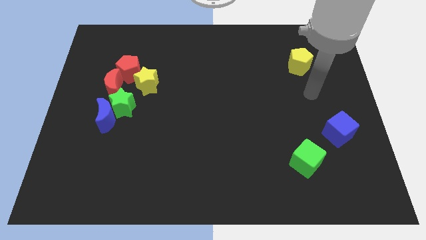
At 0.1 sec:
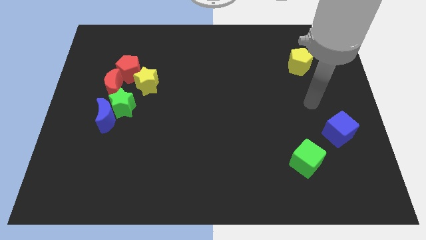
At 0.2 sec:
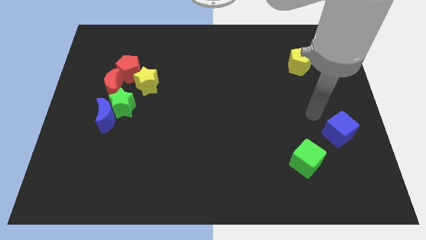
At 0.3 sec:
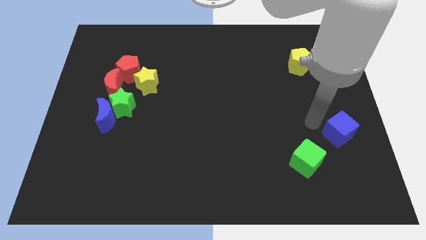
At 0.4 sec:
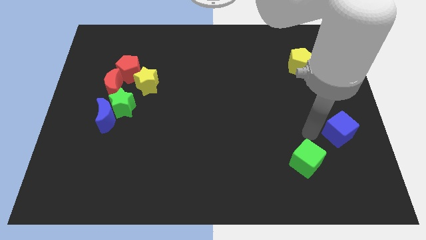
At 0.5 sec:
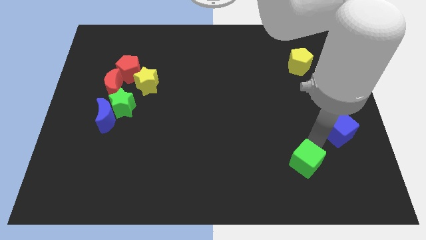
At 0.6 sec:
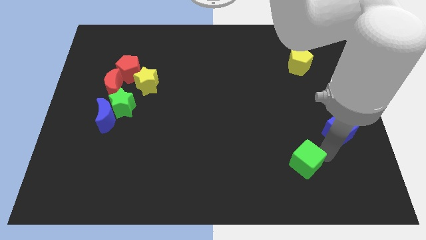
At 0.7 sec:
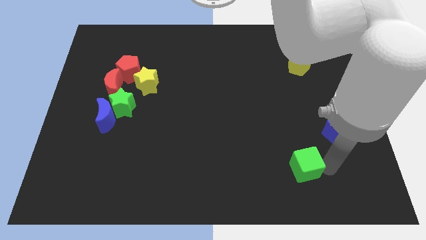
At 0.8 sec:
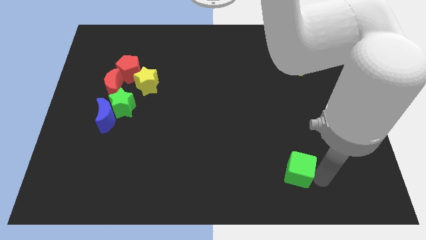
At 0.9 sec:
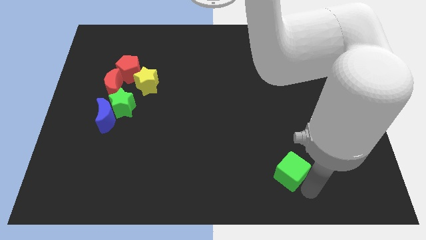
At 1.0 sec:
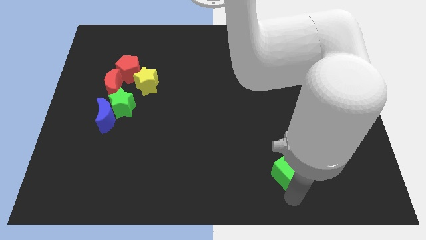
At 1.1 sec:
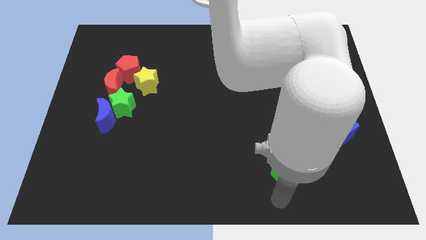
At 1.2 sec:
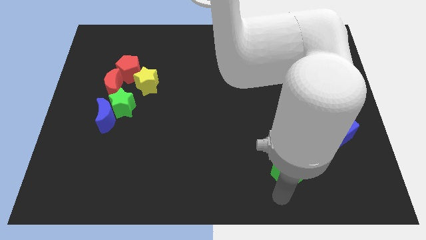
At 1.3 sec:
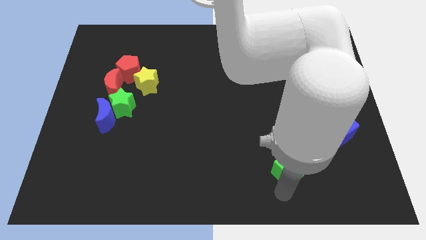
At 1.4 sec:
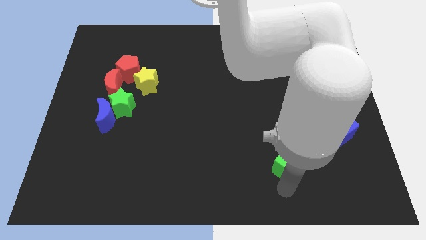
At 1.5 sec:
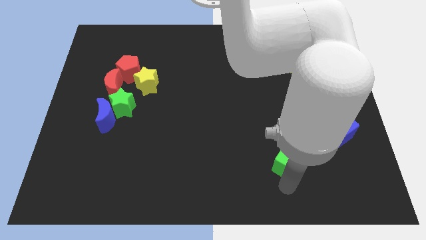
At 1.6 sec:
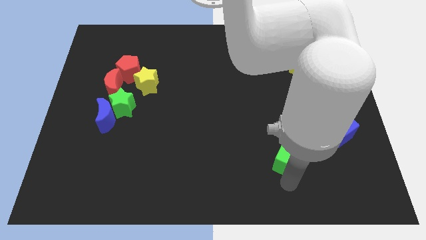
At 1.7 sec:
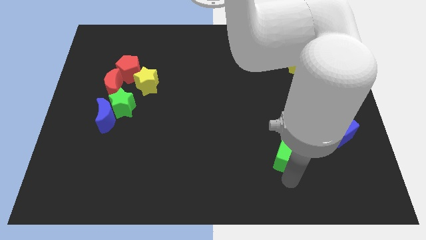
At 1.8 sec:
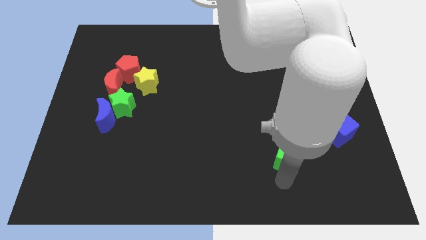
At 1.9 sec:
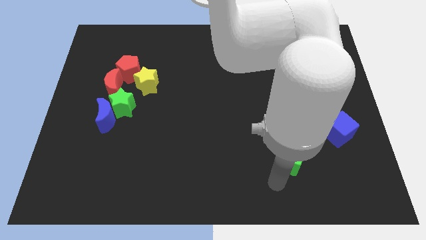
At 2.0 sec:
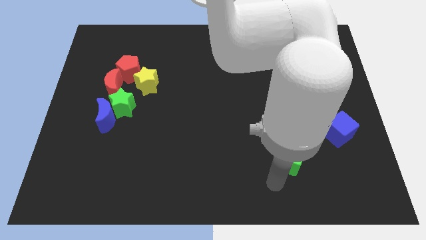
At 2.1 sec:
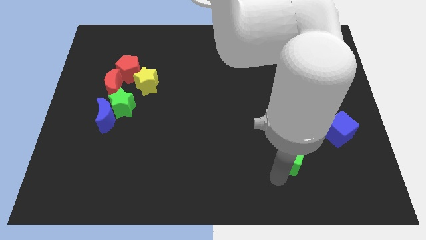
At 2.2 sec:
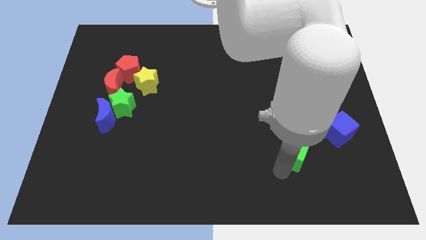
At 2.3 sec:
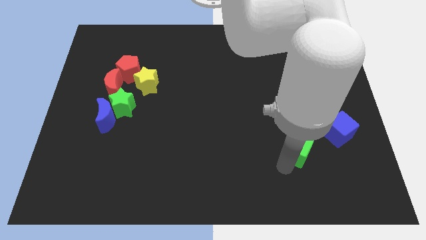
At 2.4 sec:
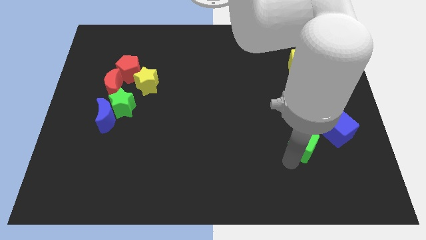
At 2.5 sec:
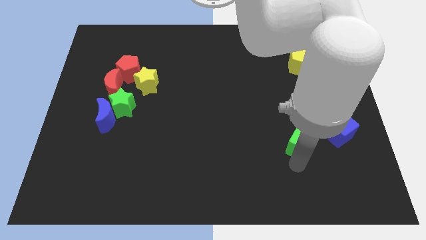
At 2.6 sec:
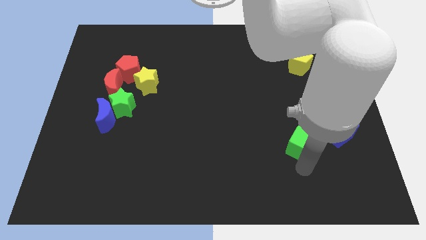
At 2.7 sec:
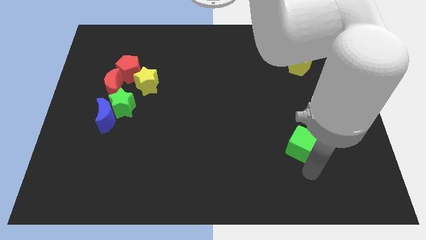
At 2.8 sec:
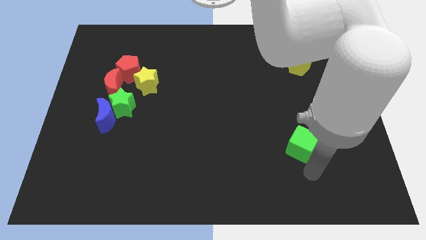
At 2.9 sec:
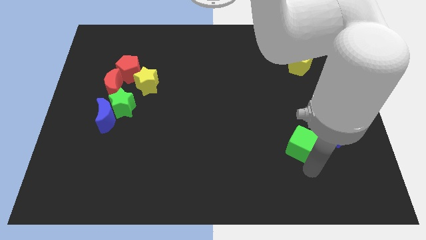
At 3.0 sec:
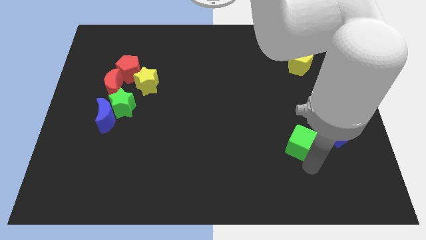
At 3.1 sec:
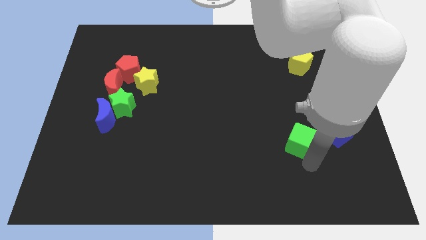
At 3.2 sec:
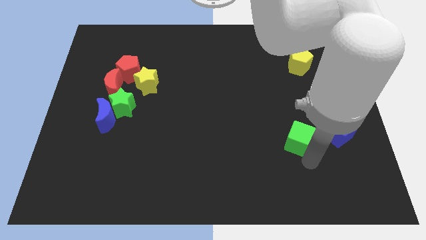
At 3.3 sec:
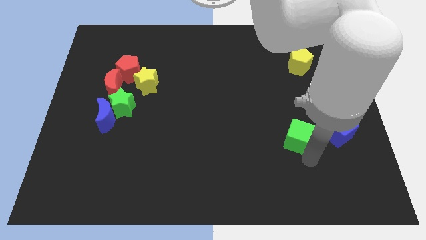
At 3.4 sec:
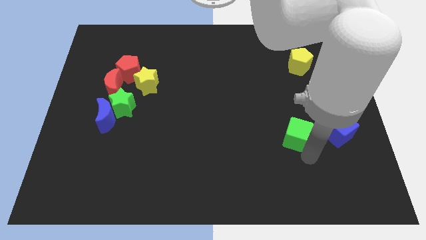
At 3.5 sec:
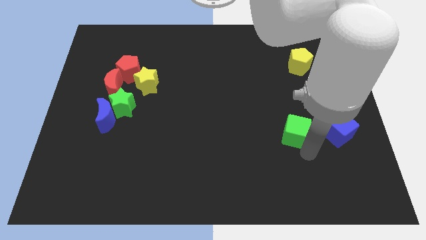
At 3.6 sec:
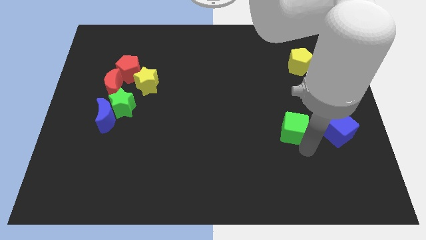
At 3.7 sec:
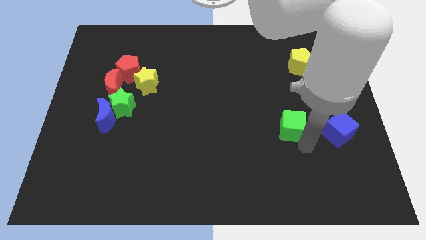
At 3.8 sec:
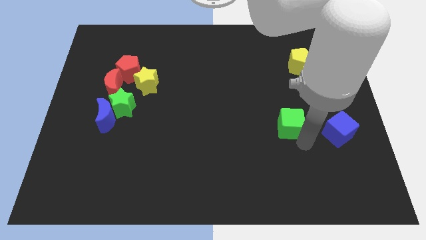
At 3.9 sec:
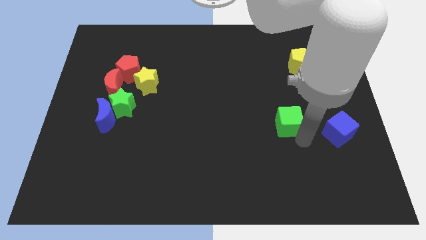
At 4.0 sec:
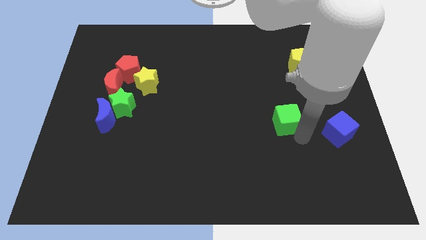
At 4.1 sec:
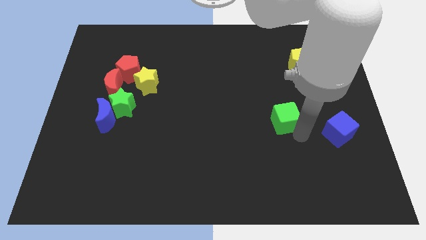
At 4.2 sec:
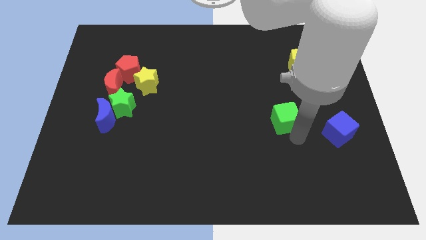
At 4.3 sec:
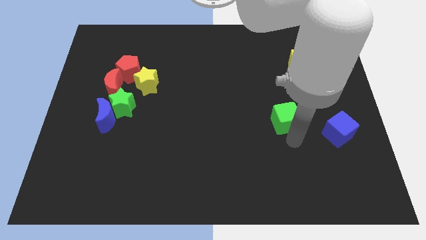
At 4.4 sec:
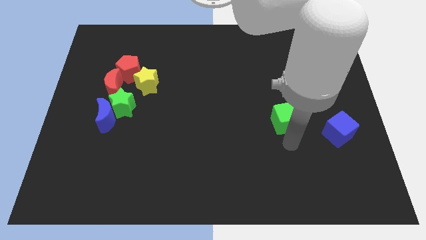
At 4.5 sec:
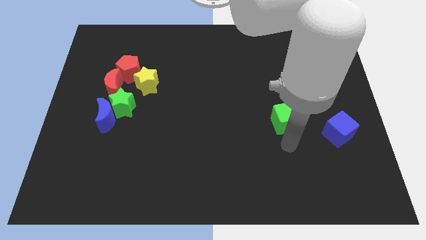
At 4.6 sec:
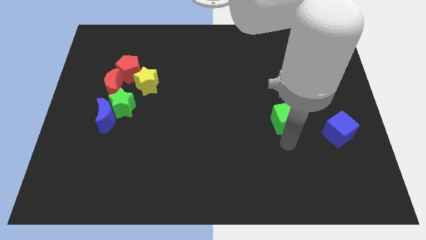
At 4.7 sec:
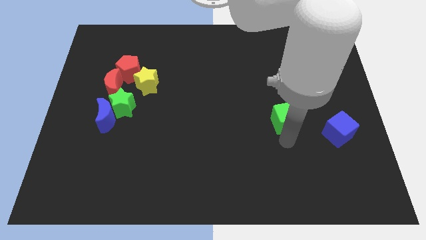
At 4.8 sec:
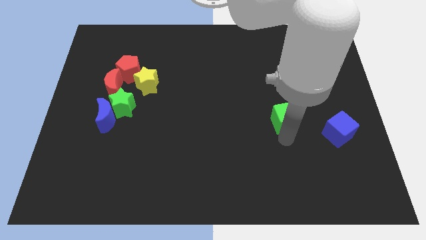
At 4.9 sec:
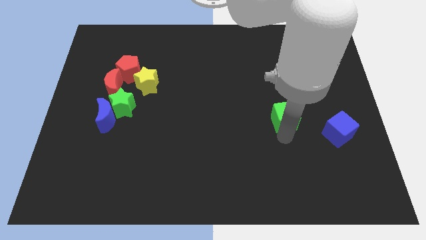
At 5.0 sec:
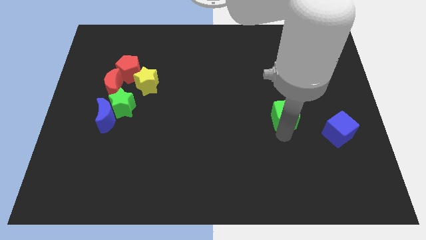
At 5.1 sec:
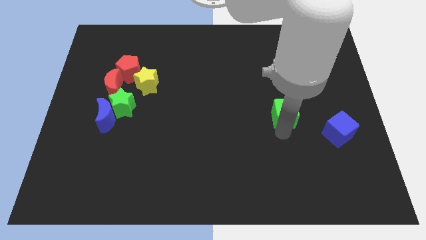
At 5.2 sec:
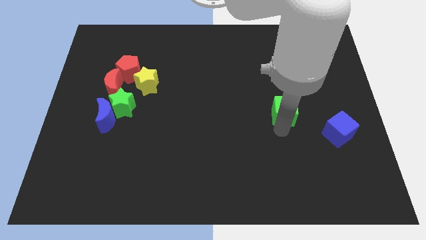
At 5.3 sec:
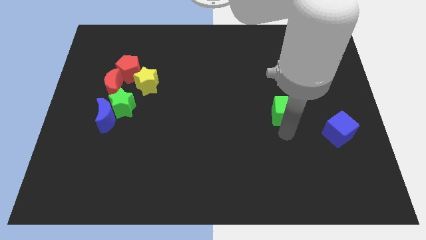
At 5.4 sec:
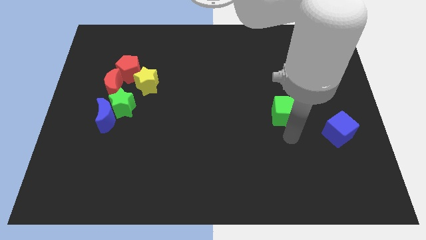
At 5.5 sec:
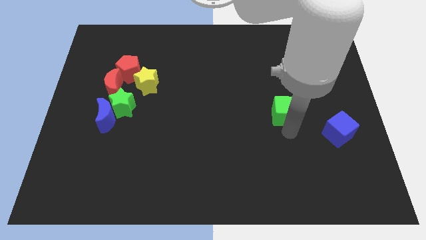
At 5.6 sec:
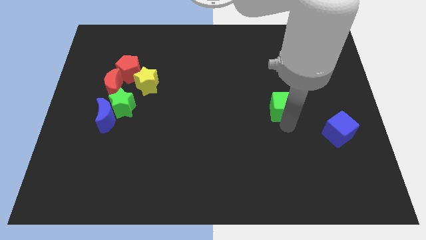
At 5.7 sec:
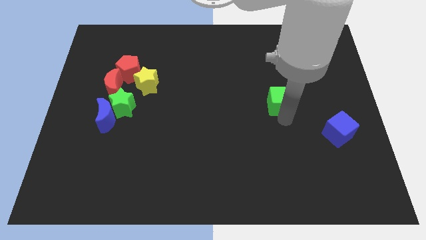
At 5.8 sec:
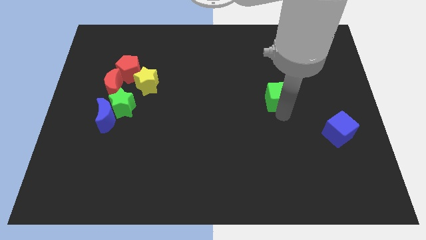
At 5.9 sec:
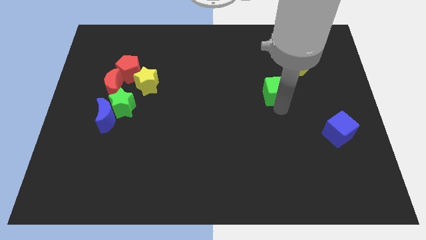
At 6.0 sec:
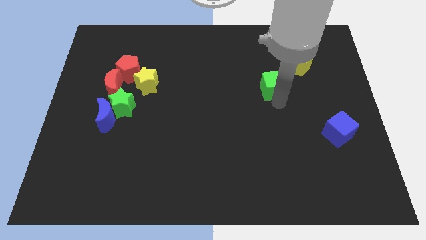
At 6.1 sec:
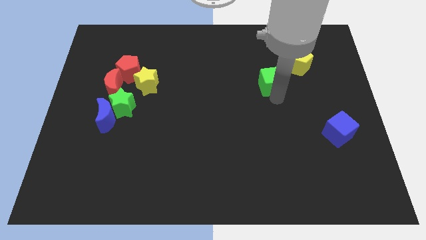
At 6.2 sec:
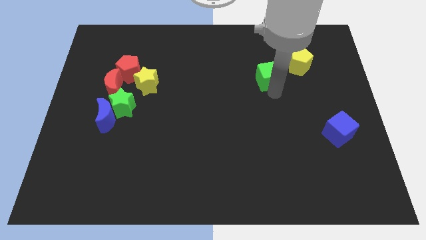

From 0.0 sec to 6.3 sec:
slide the green cube to the left of the yellow pentagon
